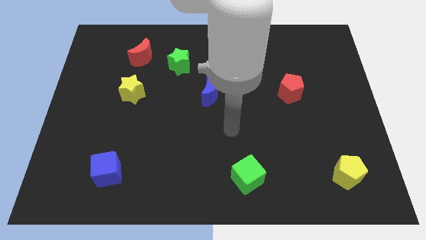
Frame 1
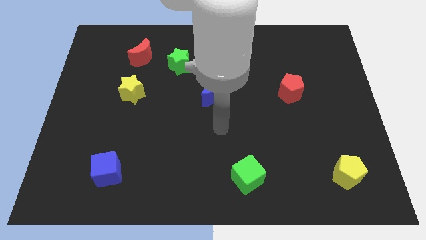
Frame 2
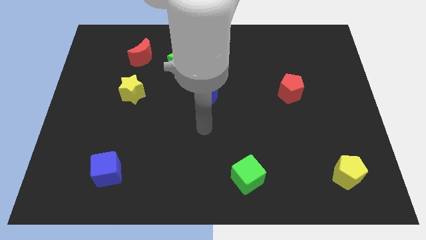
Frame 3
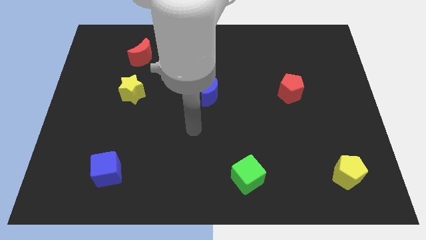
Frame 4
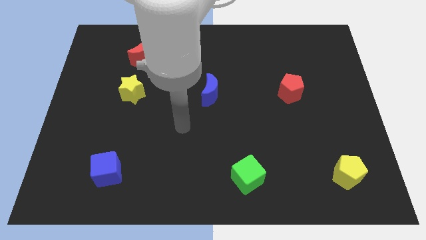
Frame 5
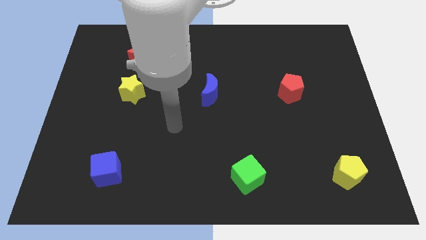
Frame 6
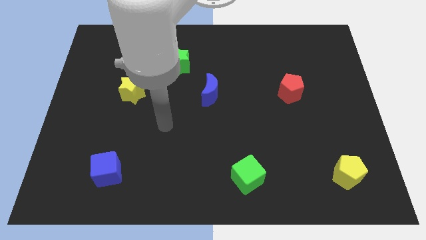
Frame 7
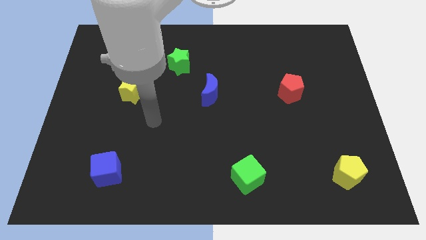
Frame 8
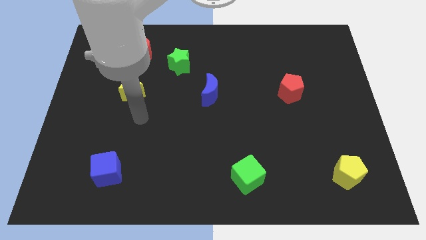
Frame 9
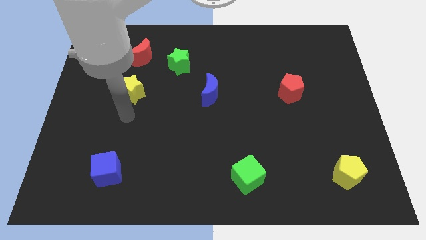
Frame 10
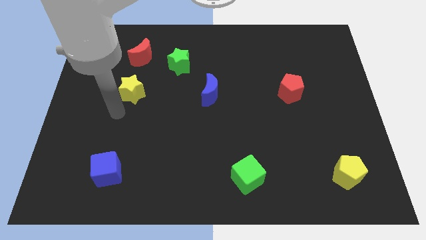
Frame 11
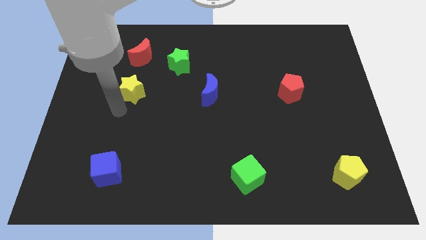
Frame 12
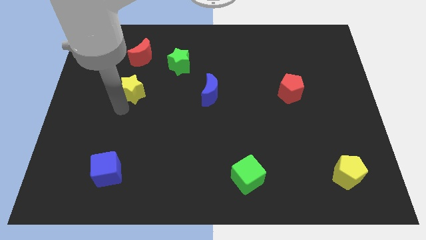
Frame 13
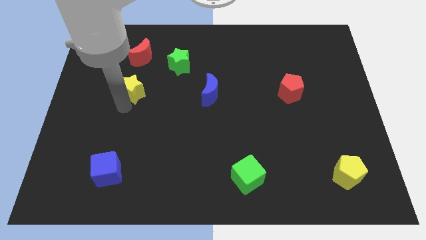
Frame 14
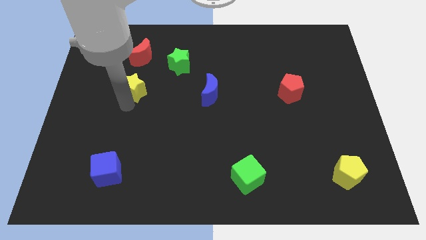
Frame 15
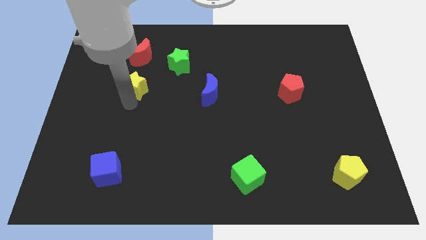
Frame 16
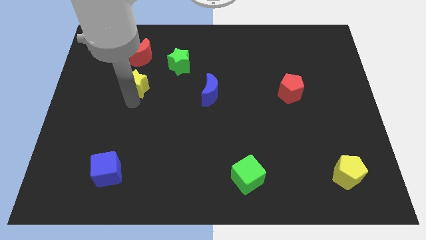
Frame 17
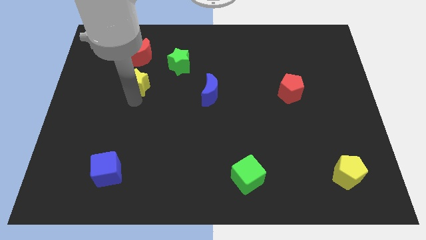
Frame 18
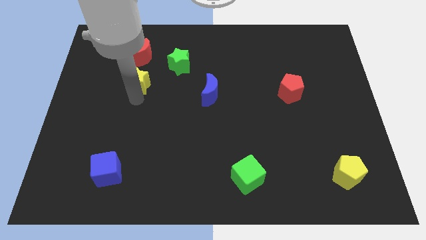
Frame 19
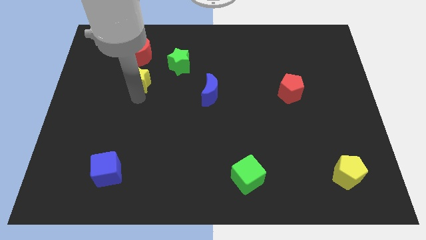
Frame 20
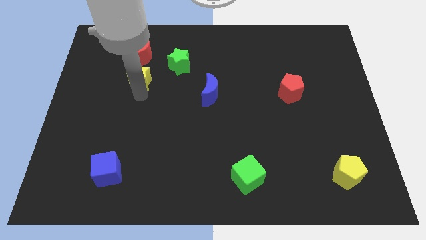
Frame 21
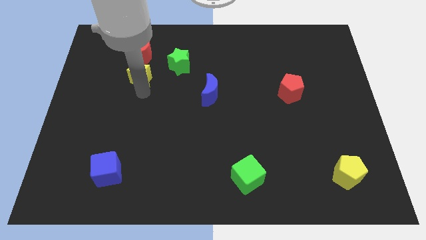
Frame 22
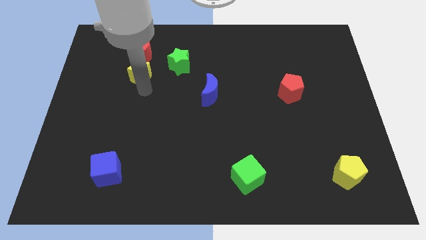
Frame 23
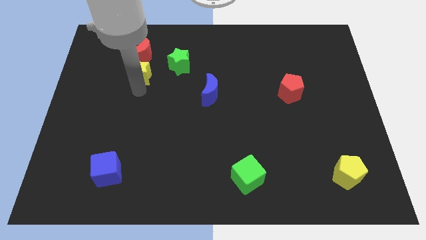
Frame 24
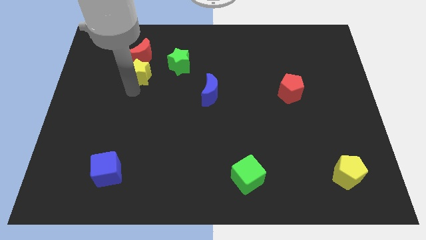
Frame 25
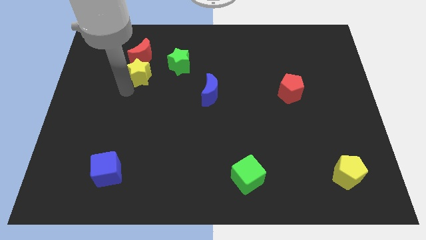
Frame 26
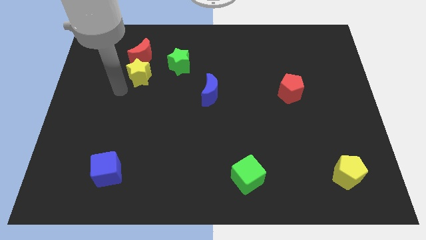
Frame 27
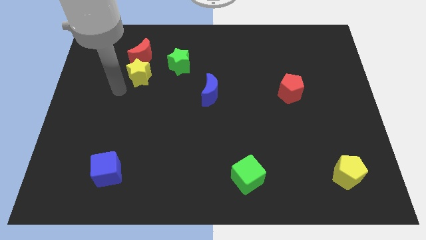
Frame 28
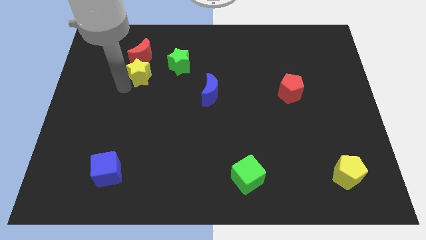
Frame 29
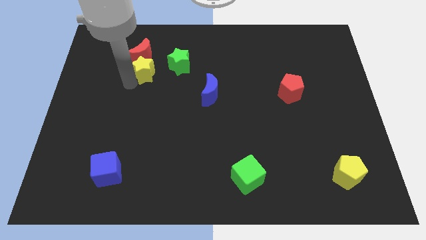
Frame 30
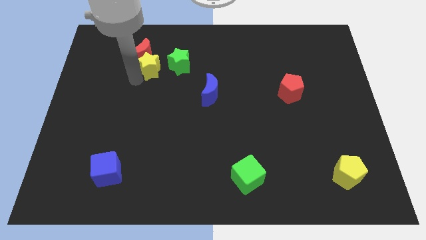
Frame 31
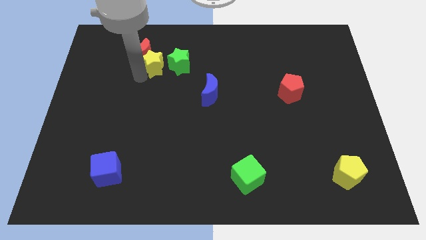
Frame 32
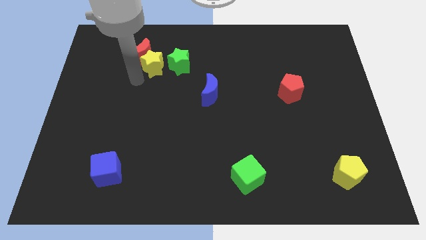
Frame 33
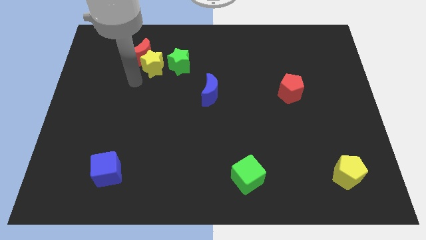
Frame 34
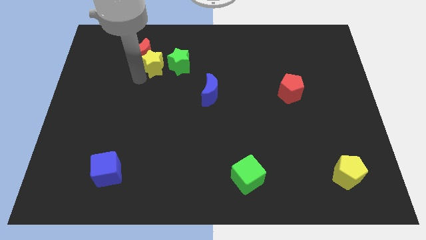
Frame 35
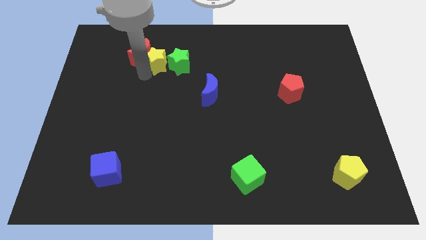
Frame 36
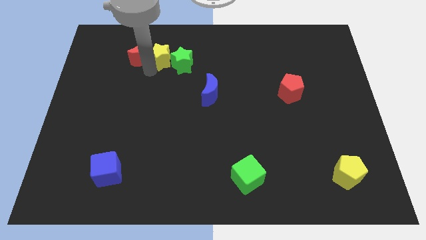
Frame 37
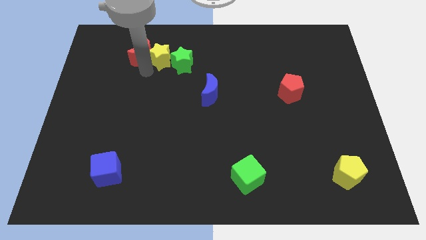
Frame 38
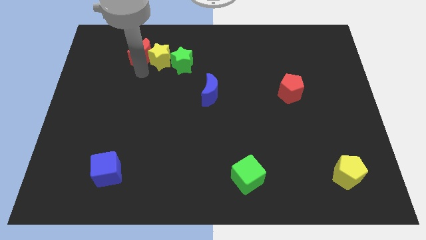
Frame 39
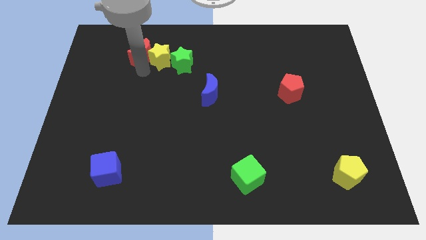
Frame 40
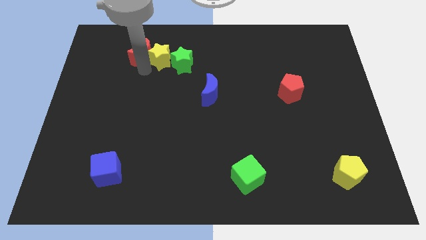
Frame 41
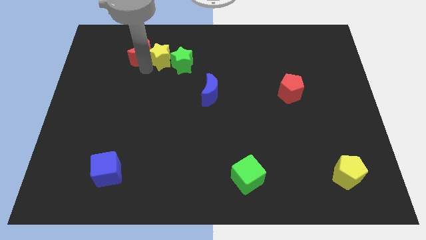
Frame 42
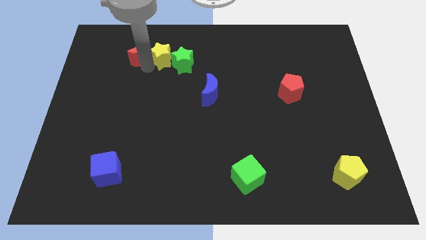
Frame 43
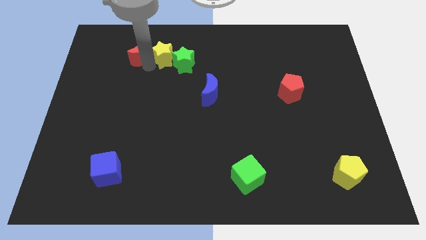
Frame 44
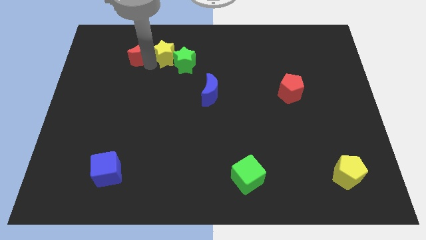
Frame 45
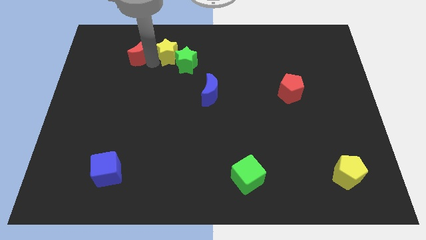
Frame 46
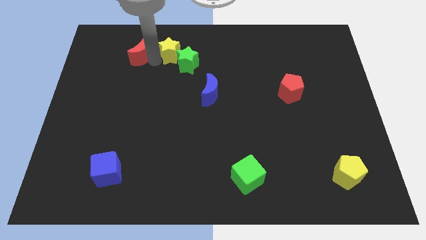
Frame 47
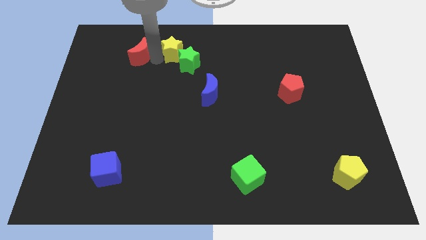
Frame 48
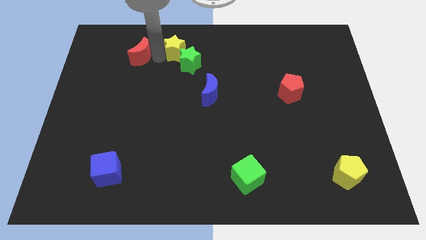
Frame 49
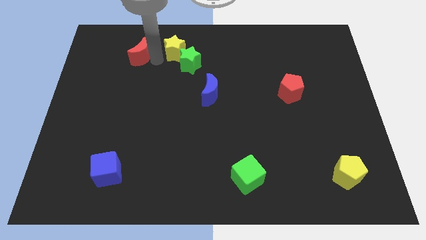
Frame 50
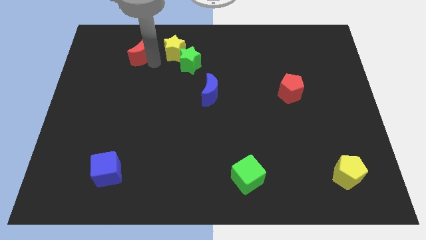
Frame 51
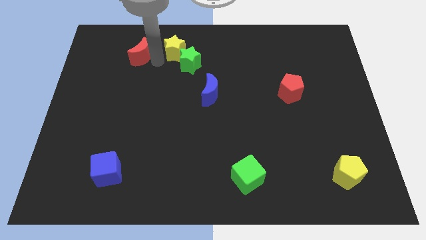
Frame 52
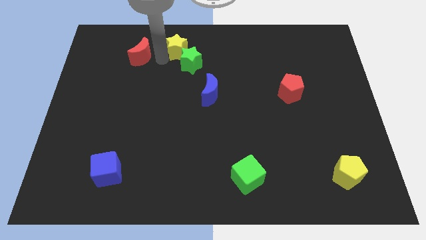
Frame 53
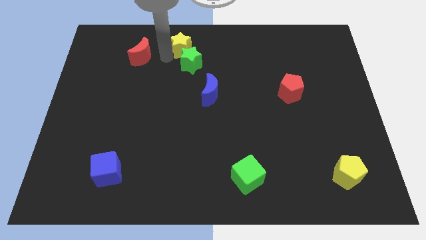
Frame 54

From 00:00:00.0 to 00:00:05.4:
put the yellow star to the top

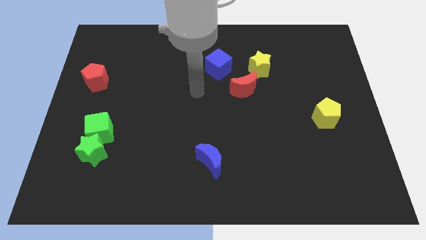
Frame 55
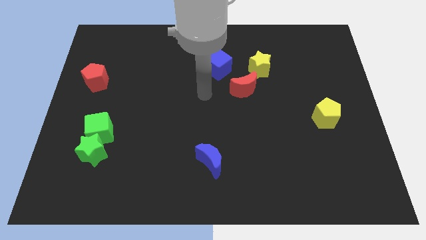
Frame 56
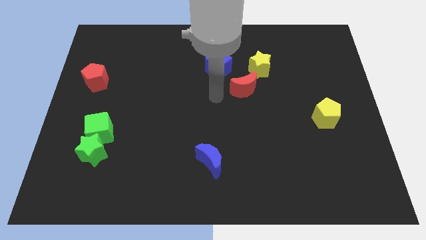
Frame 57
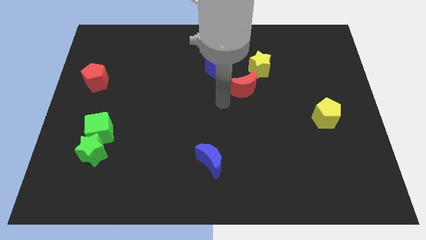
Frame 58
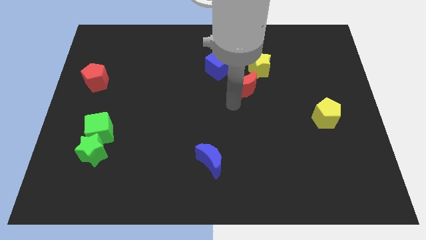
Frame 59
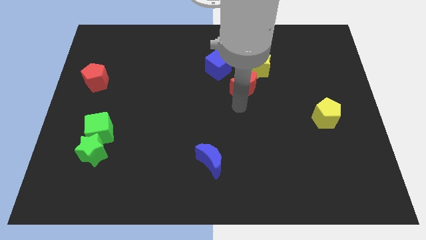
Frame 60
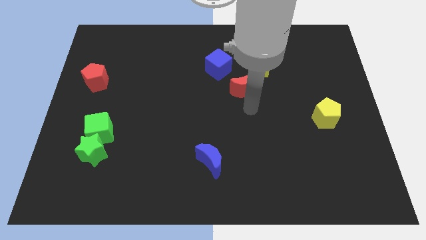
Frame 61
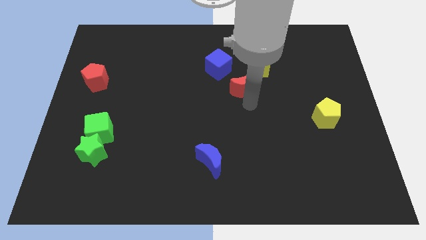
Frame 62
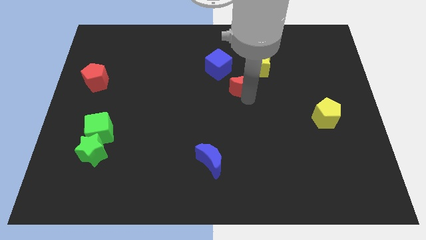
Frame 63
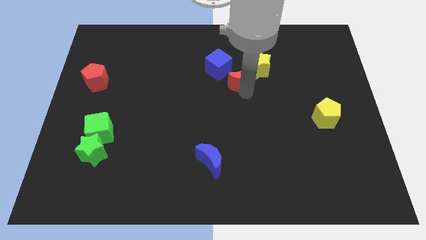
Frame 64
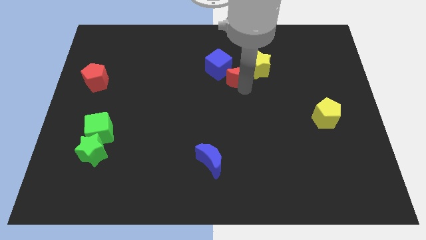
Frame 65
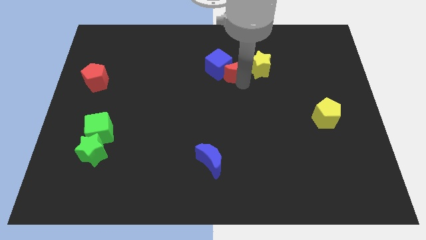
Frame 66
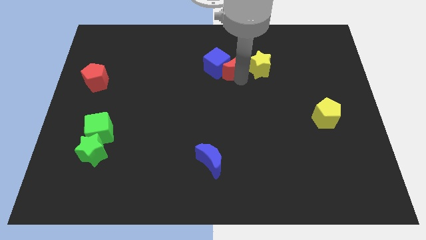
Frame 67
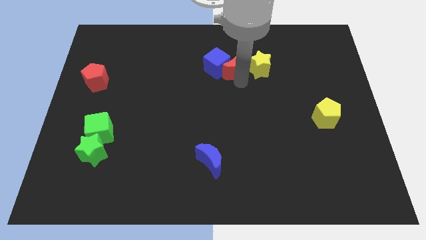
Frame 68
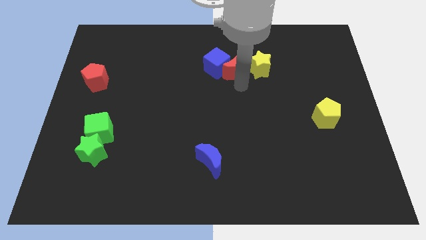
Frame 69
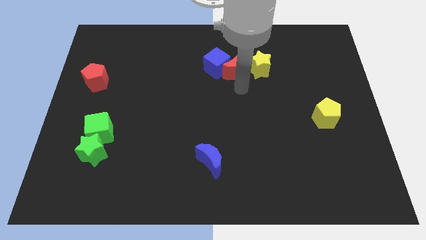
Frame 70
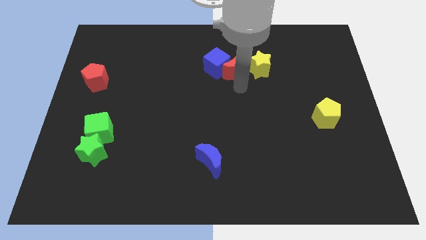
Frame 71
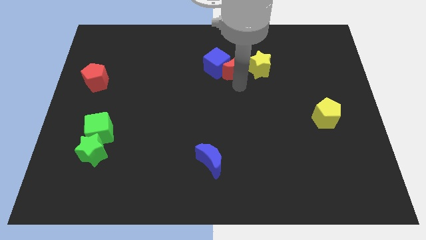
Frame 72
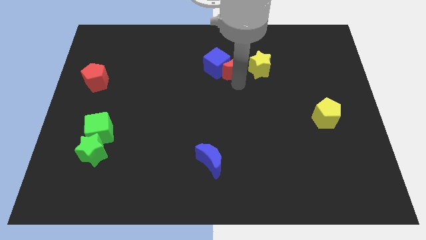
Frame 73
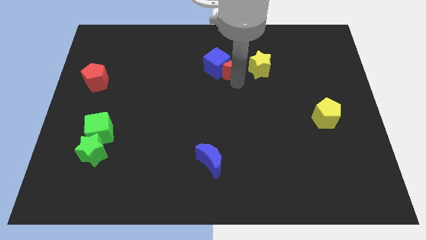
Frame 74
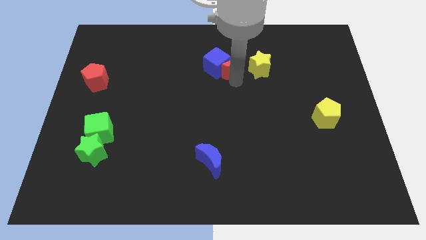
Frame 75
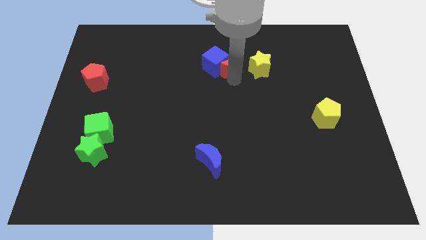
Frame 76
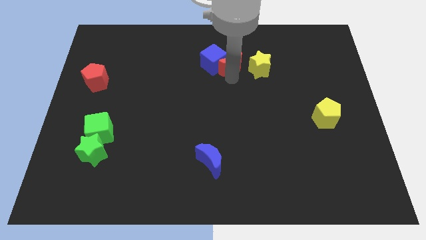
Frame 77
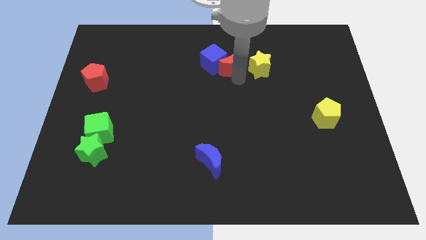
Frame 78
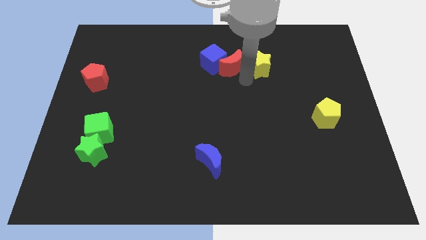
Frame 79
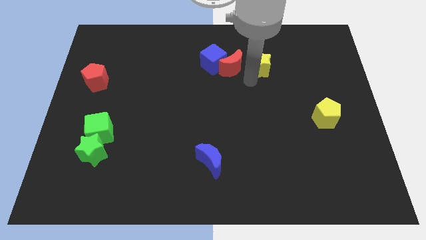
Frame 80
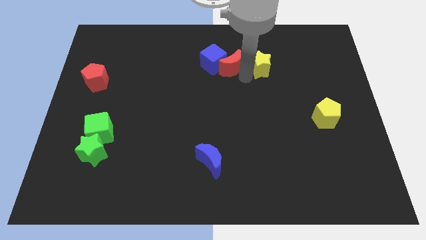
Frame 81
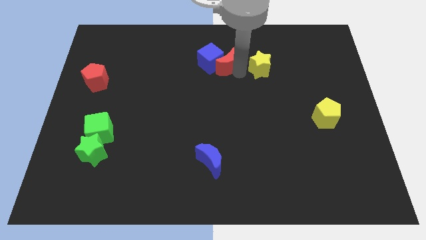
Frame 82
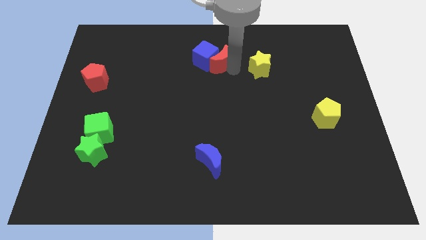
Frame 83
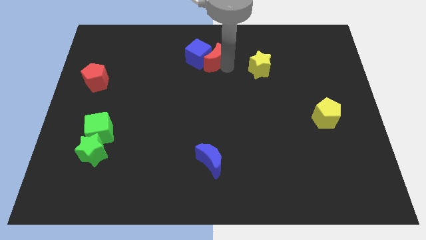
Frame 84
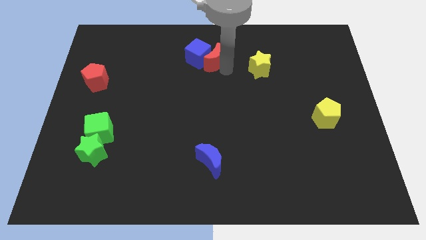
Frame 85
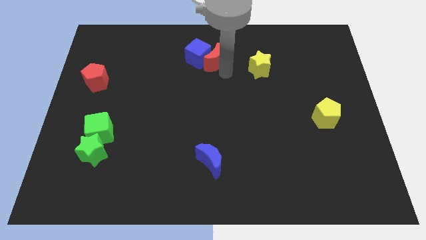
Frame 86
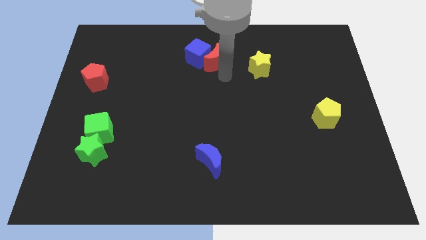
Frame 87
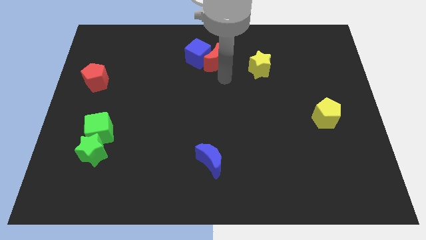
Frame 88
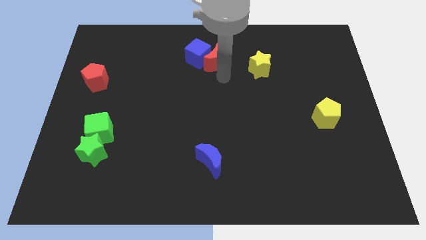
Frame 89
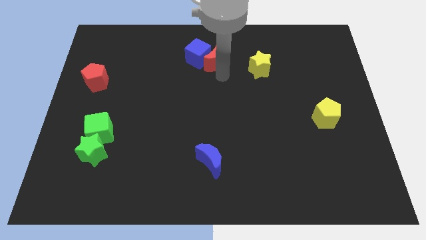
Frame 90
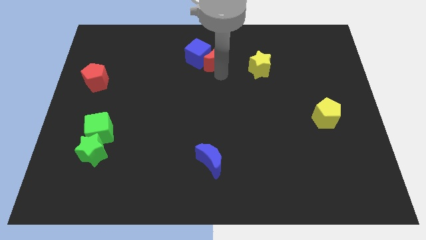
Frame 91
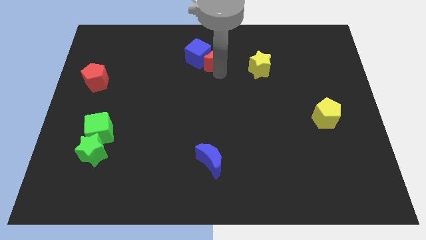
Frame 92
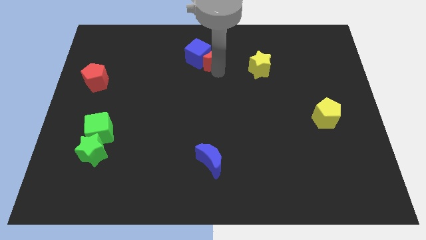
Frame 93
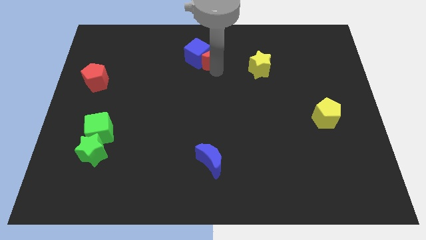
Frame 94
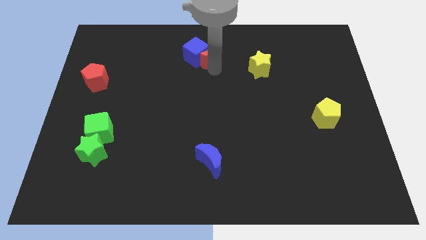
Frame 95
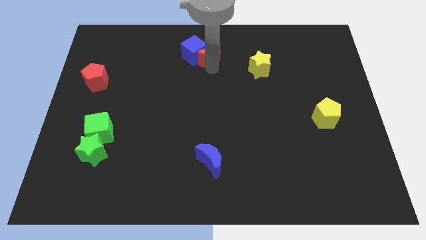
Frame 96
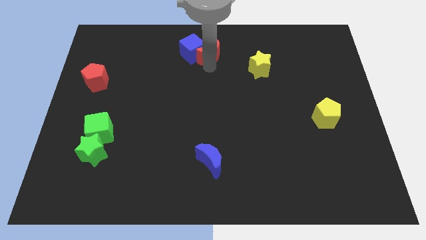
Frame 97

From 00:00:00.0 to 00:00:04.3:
move the red moon to the top
